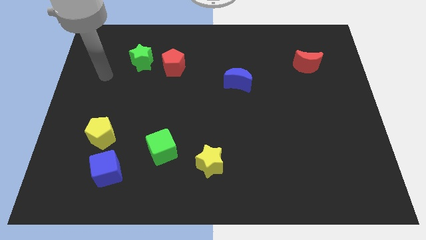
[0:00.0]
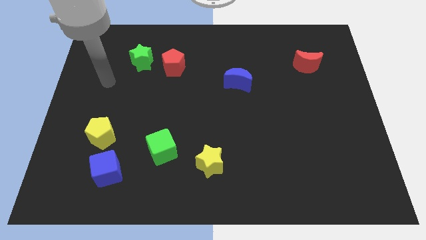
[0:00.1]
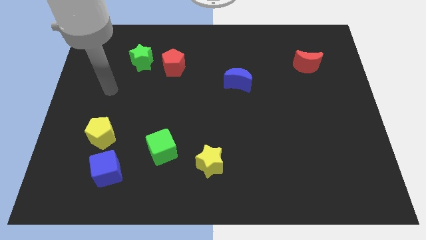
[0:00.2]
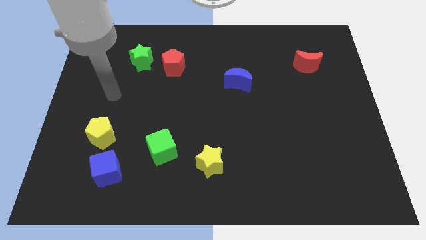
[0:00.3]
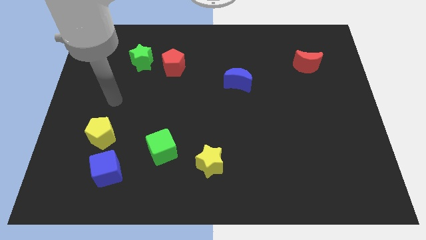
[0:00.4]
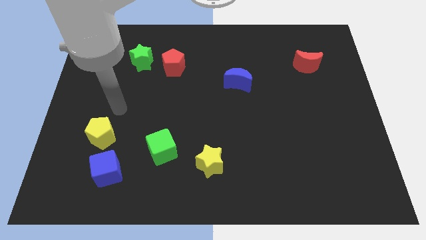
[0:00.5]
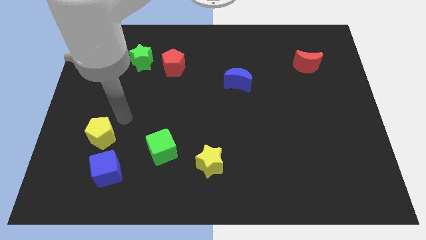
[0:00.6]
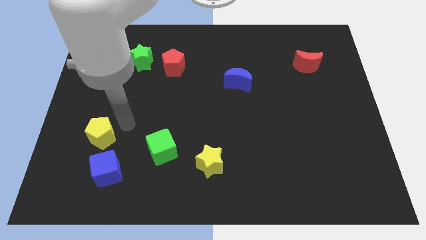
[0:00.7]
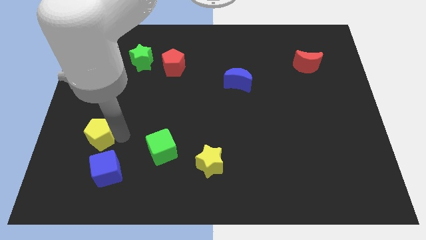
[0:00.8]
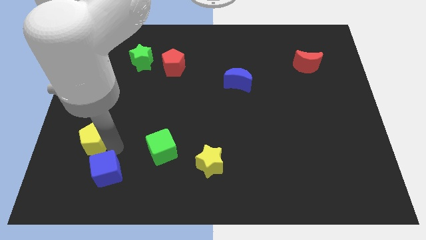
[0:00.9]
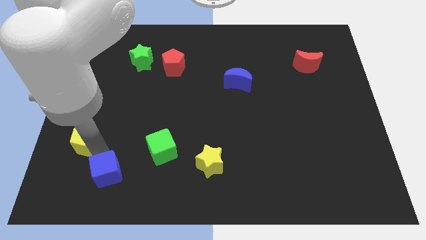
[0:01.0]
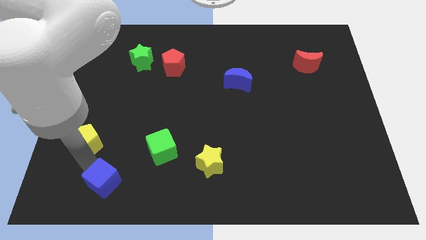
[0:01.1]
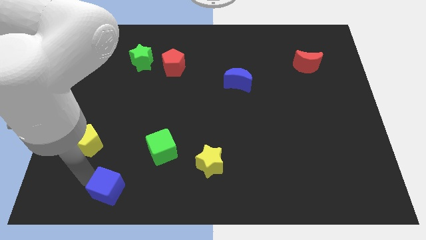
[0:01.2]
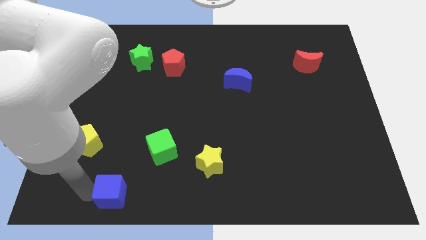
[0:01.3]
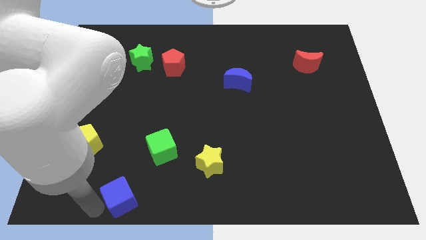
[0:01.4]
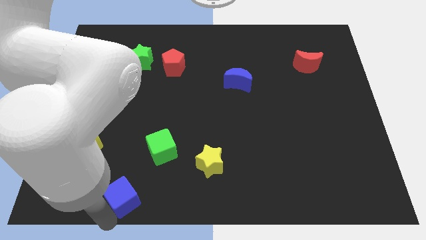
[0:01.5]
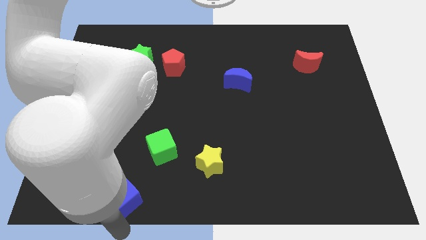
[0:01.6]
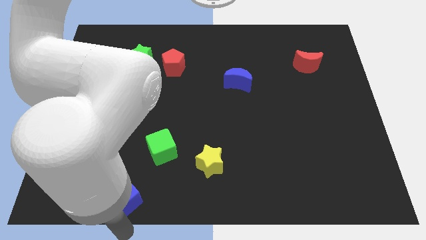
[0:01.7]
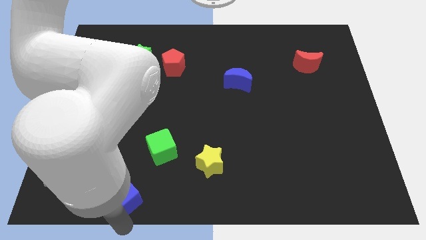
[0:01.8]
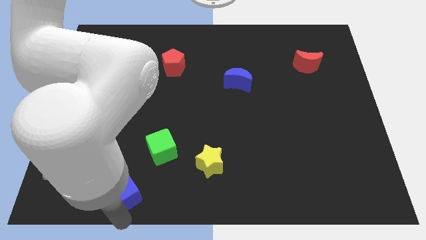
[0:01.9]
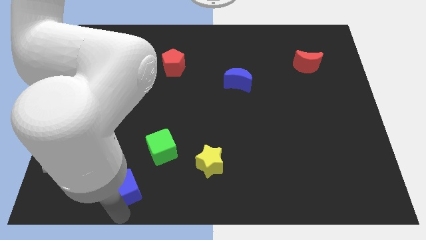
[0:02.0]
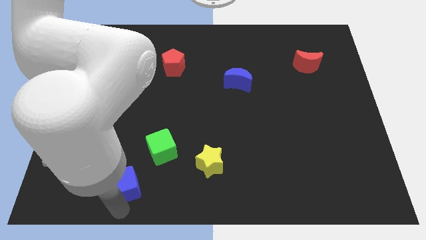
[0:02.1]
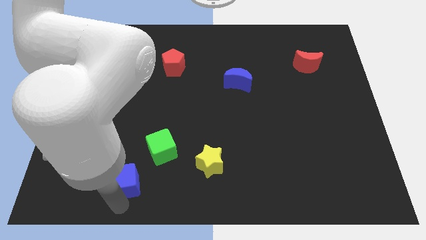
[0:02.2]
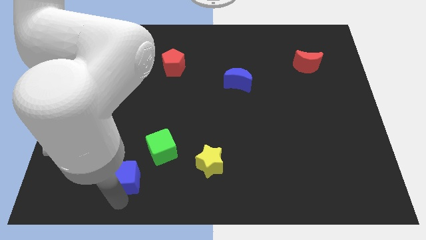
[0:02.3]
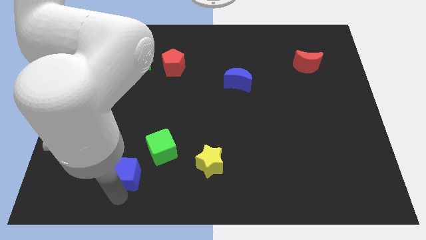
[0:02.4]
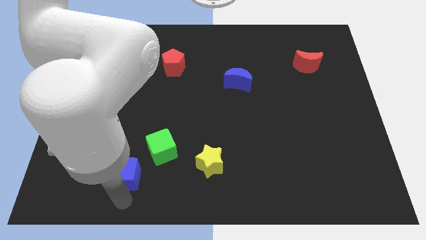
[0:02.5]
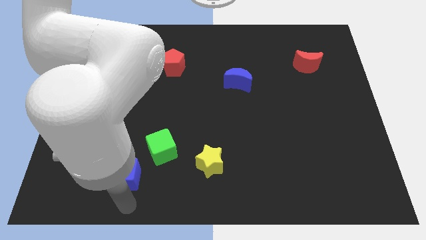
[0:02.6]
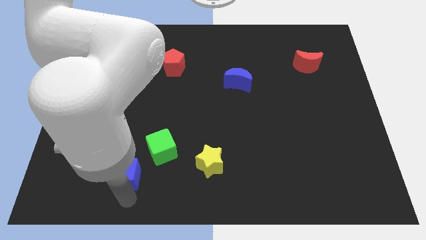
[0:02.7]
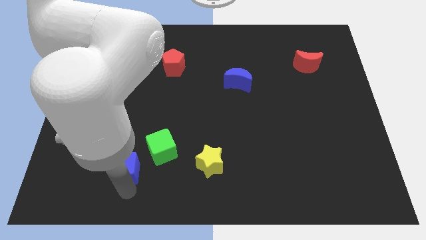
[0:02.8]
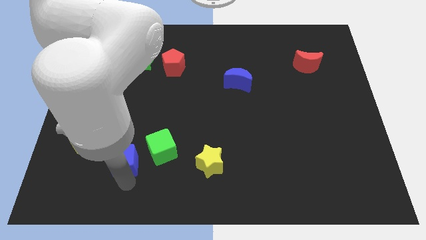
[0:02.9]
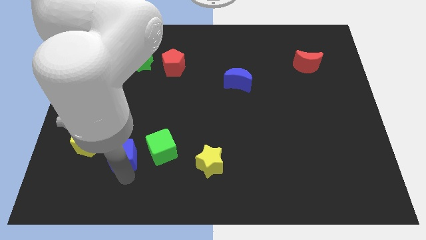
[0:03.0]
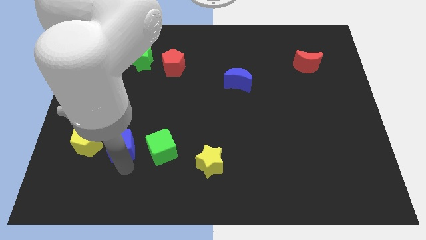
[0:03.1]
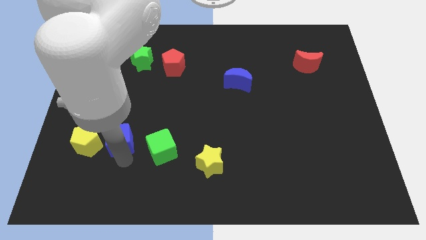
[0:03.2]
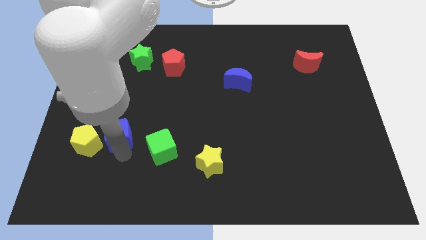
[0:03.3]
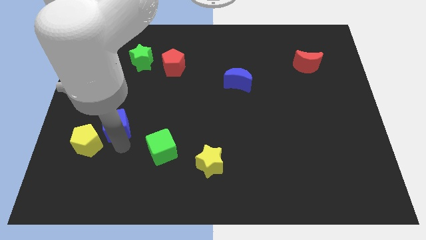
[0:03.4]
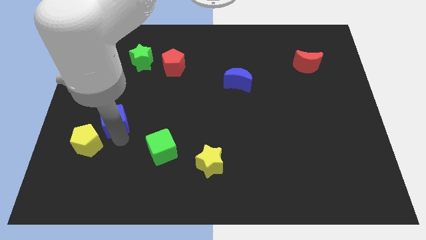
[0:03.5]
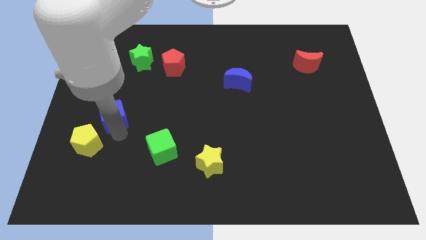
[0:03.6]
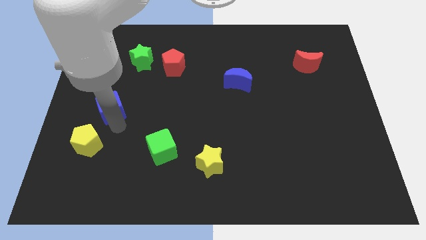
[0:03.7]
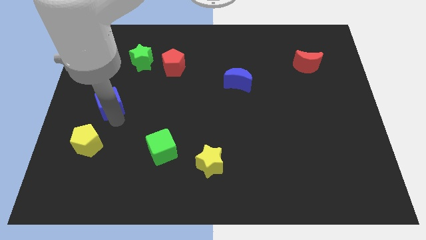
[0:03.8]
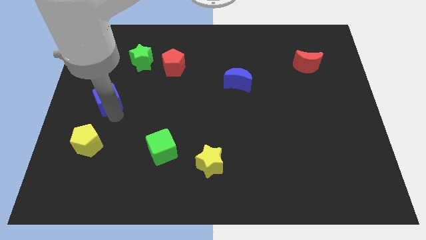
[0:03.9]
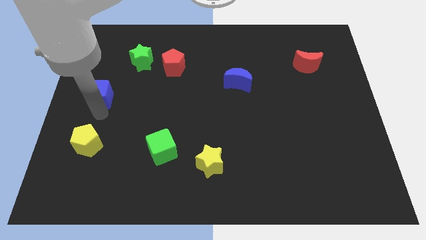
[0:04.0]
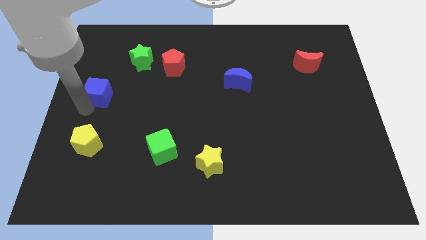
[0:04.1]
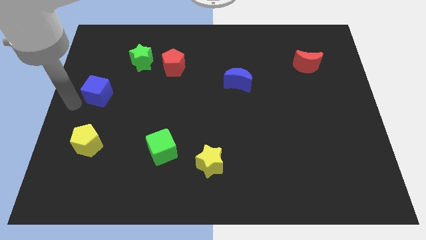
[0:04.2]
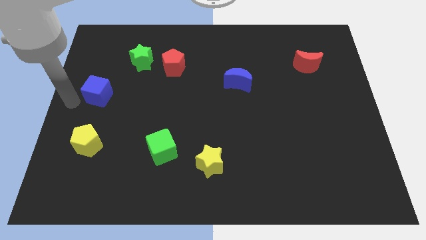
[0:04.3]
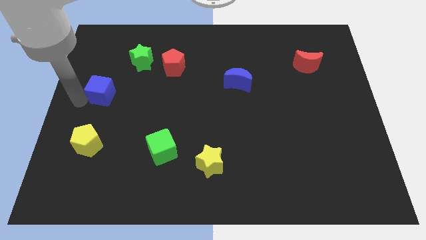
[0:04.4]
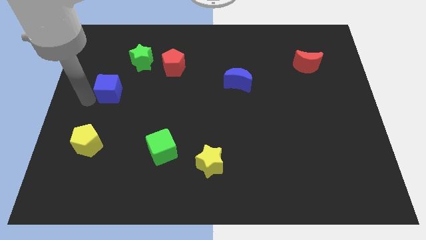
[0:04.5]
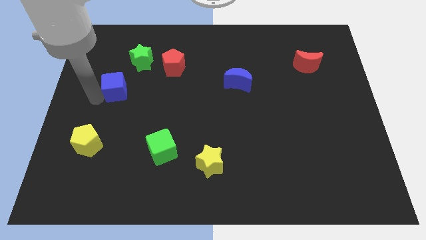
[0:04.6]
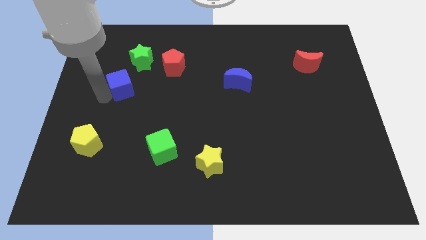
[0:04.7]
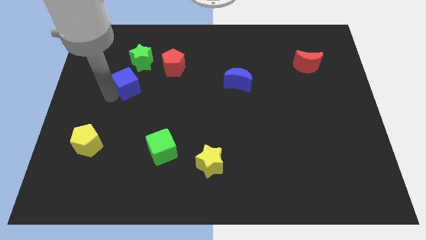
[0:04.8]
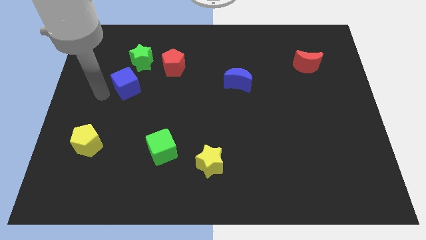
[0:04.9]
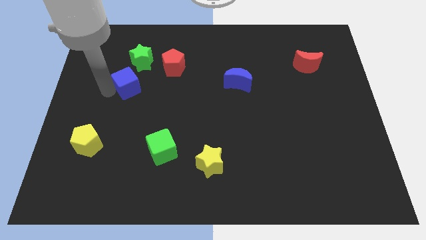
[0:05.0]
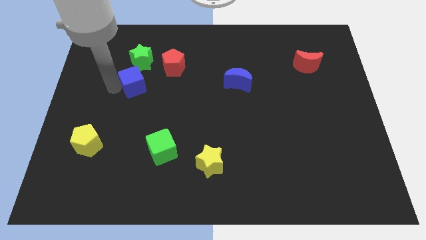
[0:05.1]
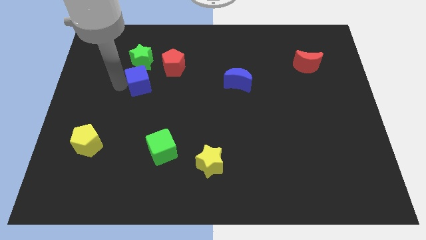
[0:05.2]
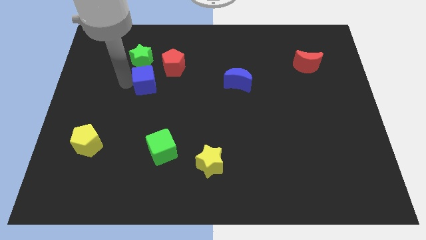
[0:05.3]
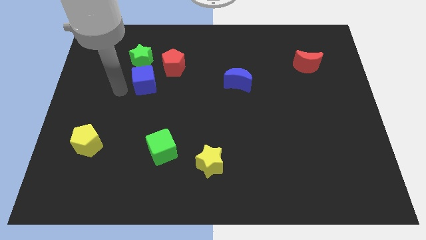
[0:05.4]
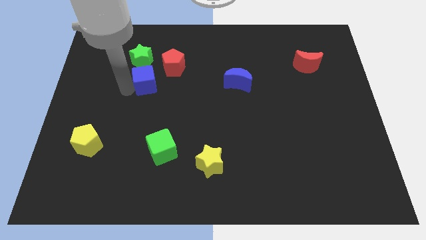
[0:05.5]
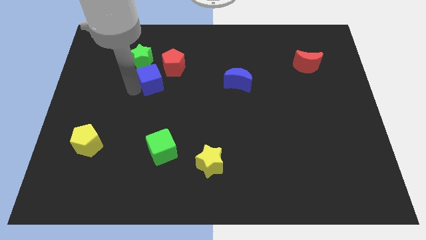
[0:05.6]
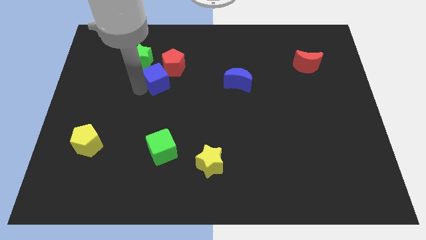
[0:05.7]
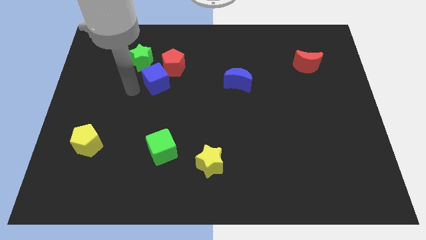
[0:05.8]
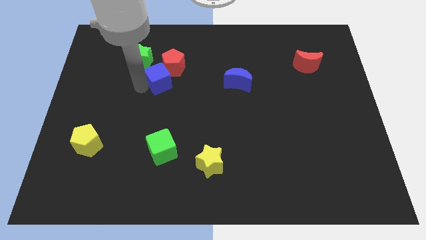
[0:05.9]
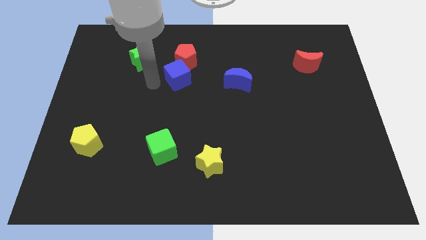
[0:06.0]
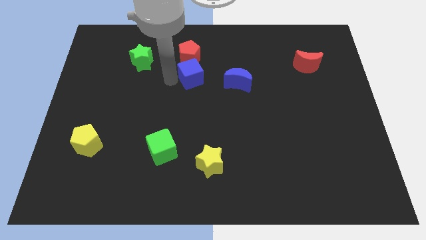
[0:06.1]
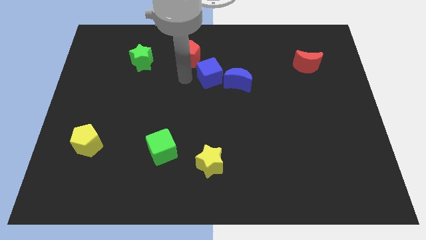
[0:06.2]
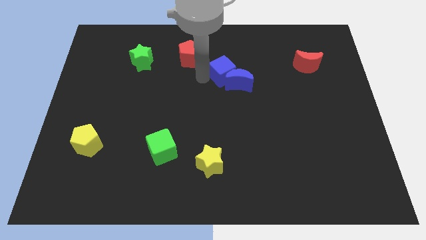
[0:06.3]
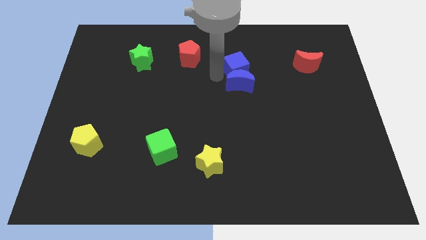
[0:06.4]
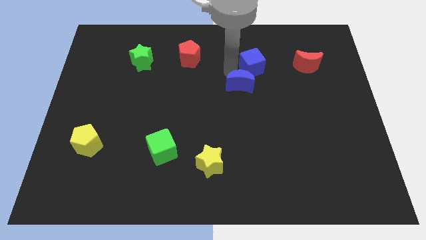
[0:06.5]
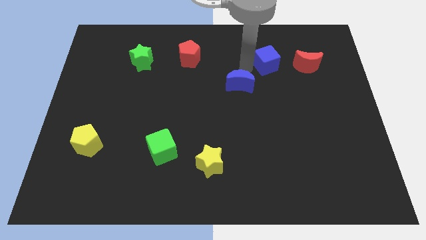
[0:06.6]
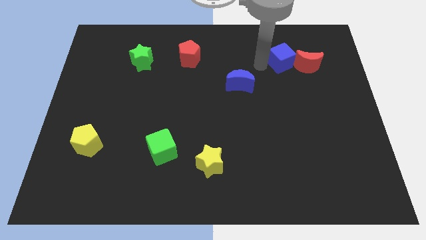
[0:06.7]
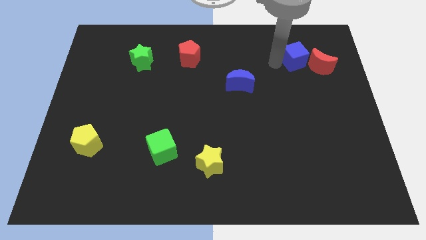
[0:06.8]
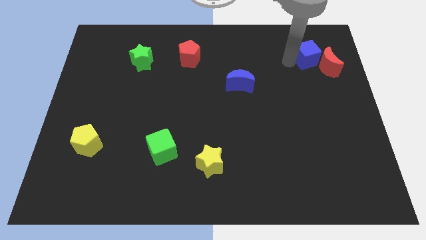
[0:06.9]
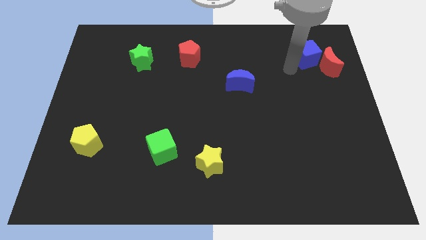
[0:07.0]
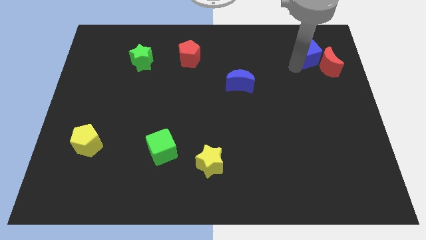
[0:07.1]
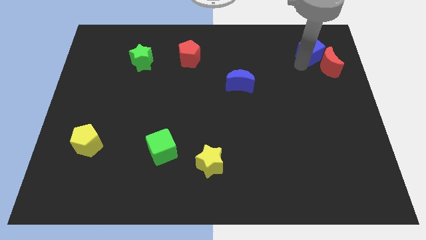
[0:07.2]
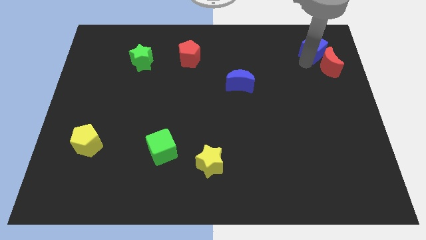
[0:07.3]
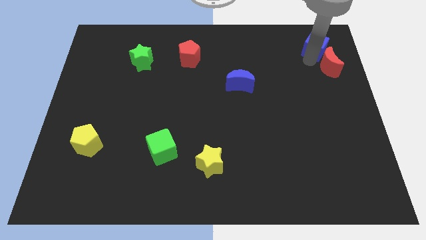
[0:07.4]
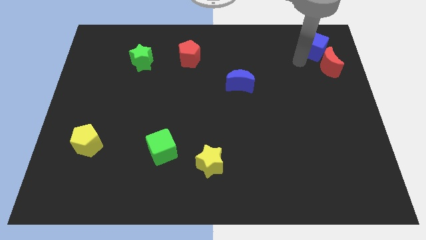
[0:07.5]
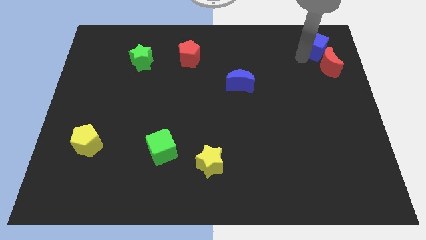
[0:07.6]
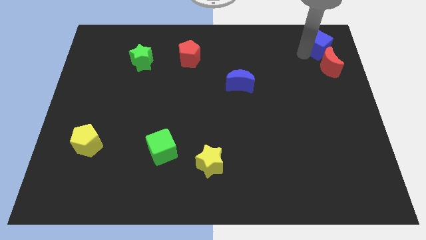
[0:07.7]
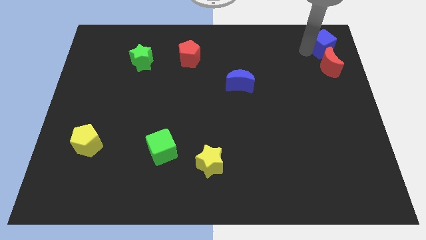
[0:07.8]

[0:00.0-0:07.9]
slide the blue cube to the top right corner
